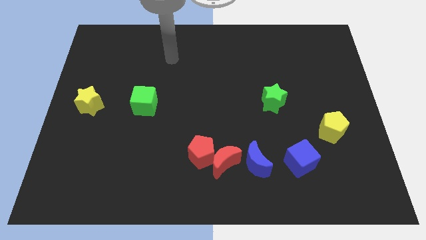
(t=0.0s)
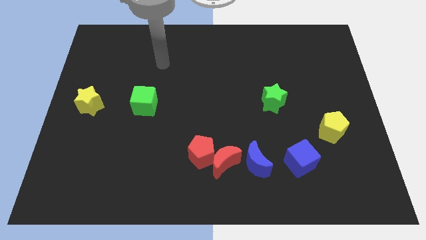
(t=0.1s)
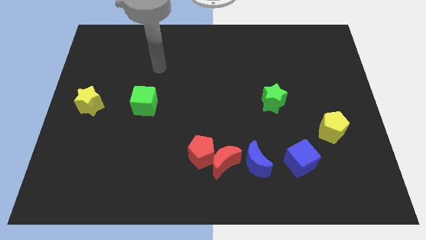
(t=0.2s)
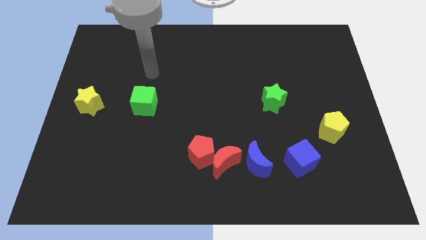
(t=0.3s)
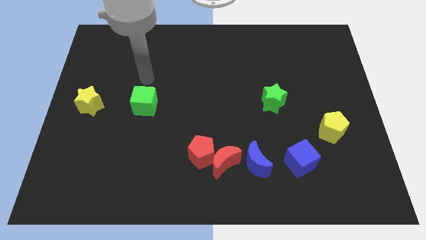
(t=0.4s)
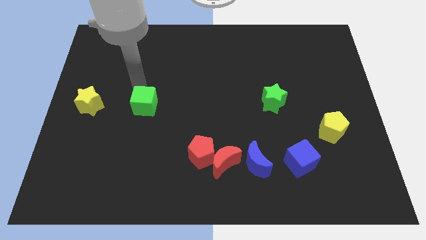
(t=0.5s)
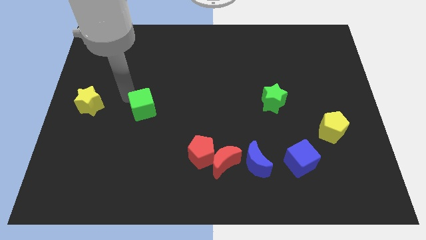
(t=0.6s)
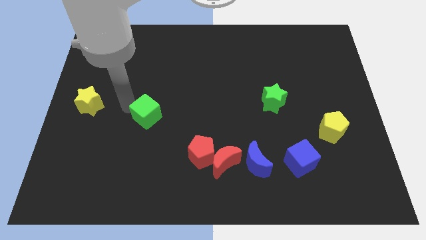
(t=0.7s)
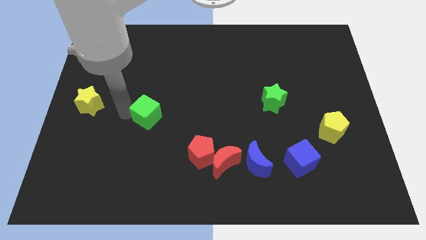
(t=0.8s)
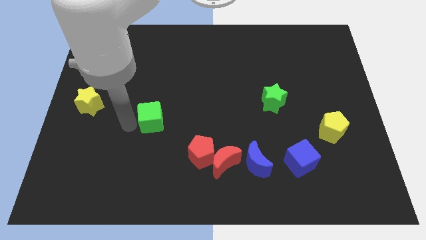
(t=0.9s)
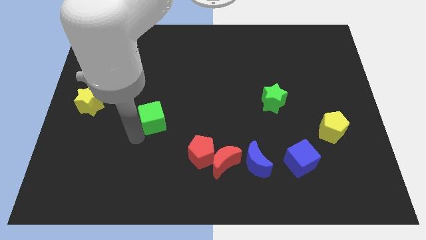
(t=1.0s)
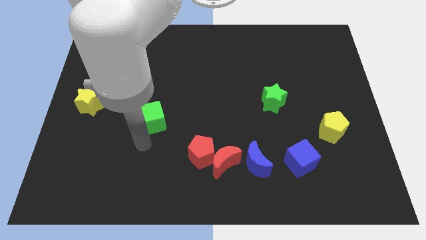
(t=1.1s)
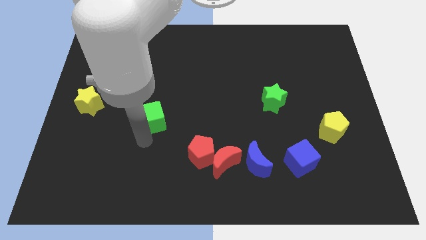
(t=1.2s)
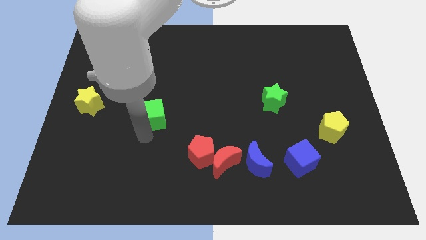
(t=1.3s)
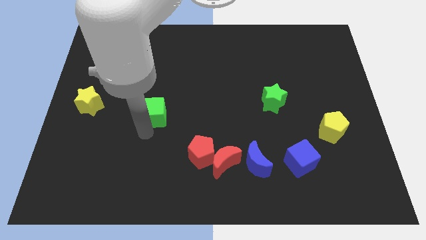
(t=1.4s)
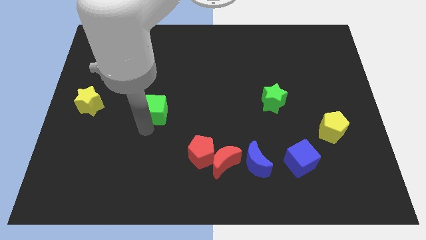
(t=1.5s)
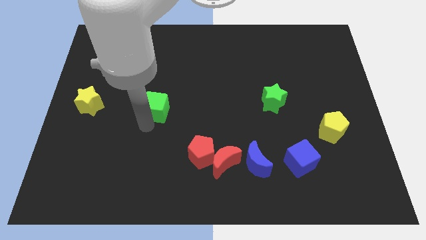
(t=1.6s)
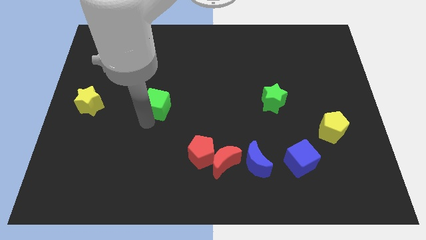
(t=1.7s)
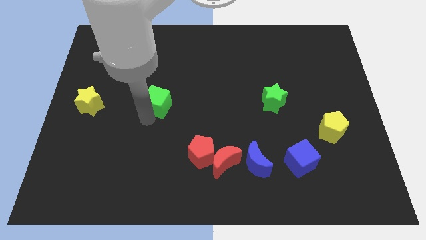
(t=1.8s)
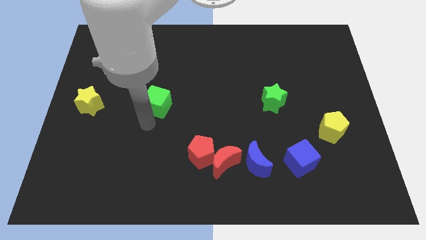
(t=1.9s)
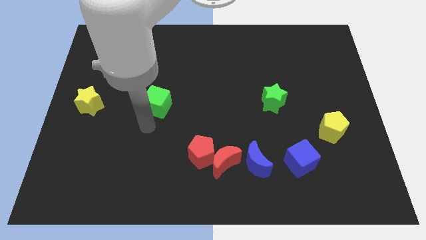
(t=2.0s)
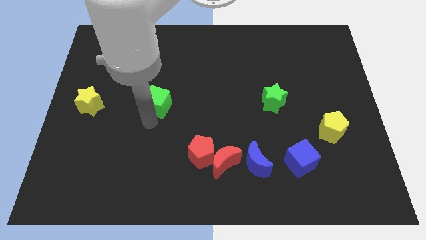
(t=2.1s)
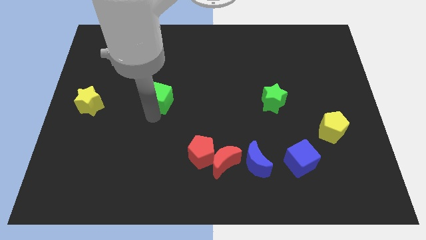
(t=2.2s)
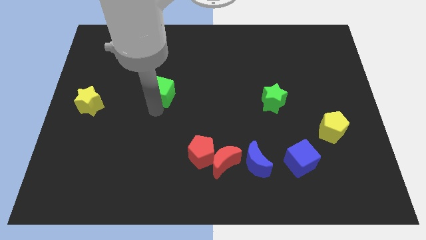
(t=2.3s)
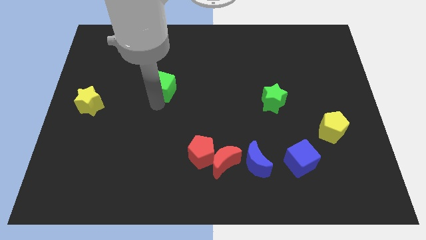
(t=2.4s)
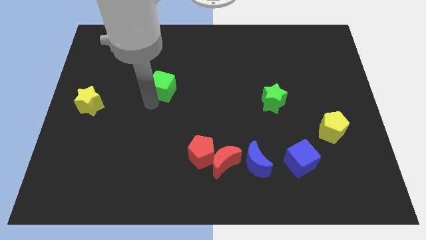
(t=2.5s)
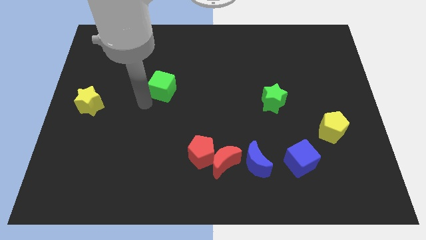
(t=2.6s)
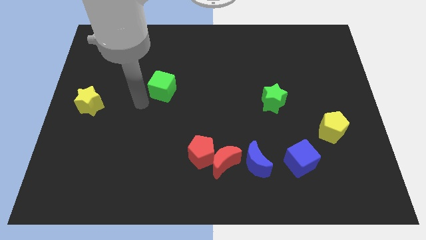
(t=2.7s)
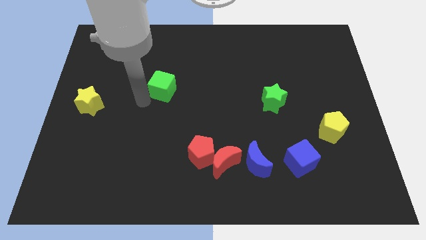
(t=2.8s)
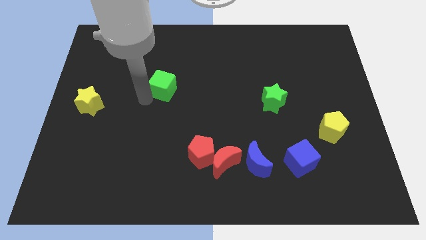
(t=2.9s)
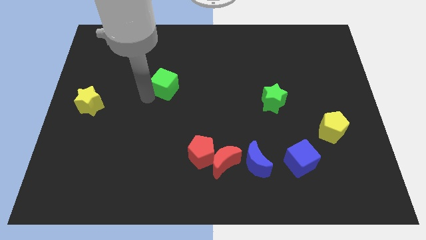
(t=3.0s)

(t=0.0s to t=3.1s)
slightly push the green cube up and to the right

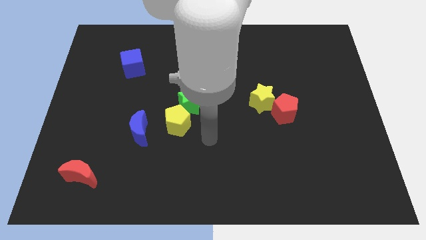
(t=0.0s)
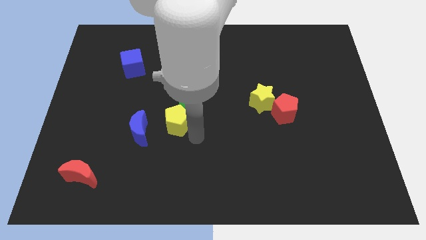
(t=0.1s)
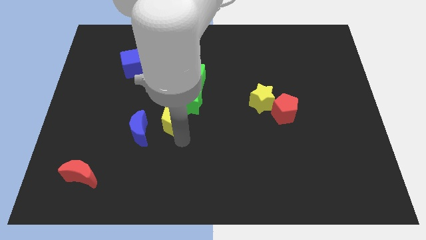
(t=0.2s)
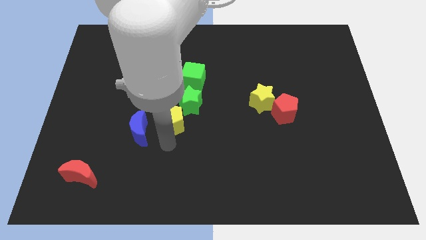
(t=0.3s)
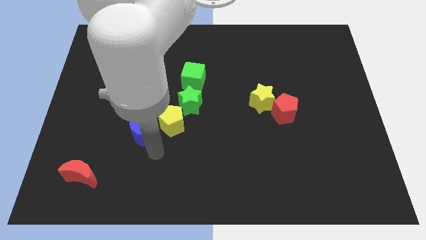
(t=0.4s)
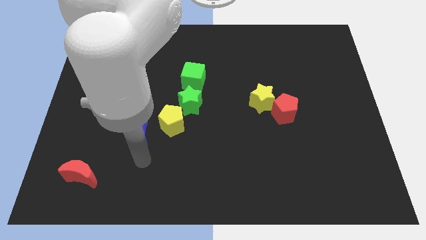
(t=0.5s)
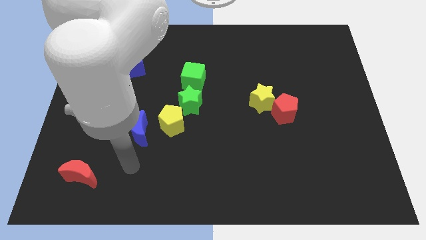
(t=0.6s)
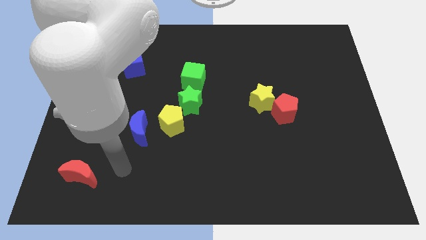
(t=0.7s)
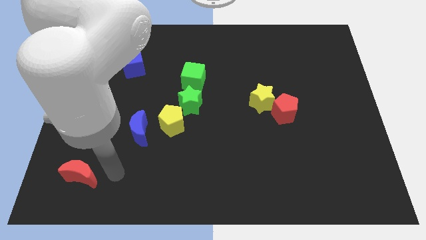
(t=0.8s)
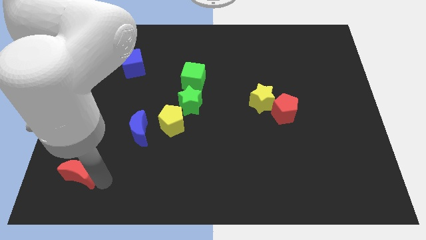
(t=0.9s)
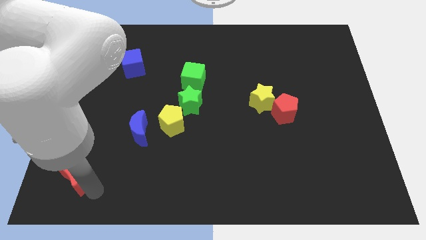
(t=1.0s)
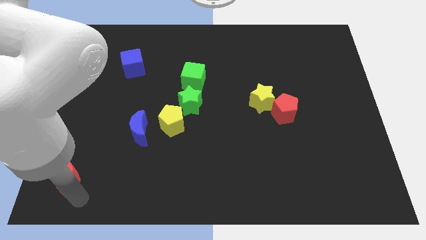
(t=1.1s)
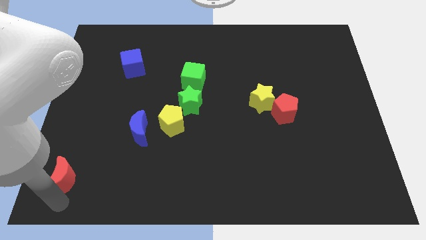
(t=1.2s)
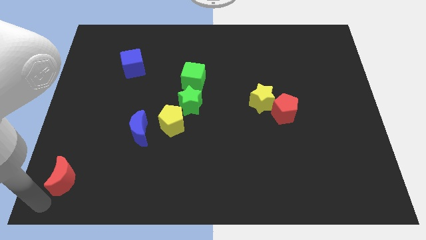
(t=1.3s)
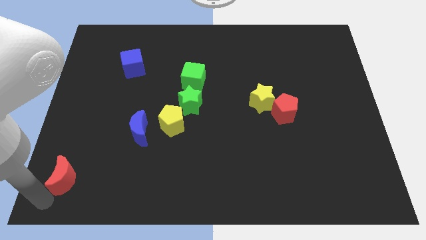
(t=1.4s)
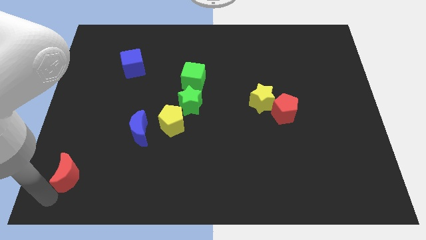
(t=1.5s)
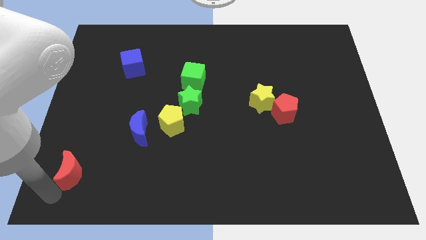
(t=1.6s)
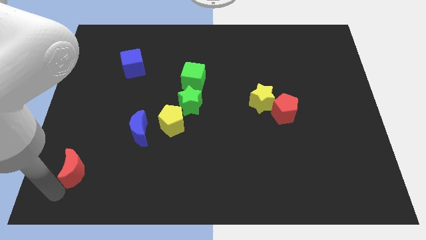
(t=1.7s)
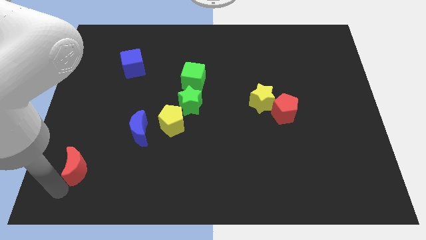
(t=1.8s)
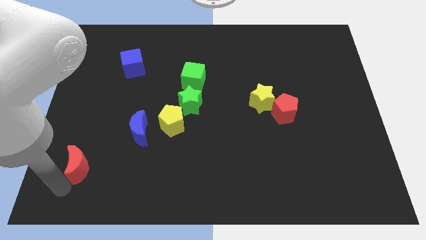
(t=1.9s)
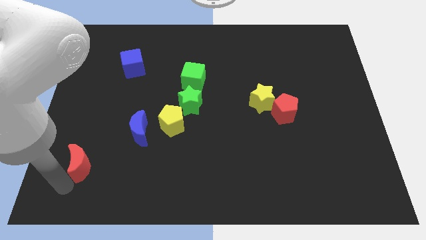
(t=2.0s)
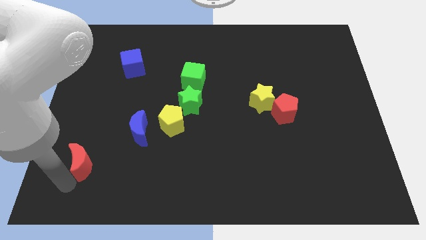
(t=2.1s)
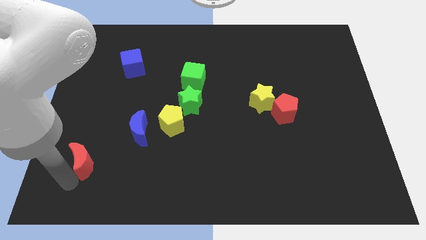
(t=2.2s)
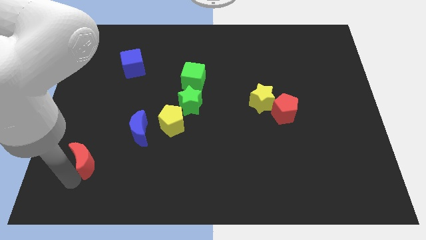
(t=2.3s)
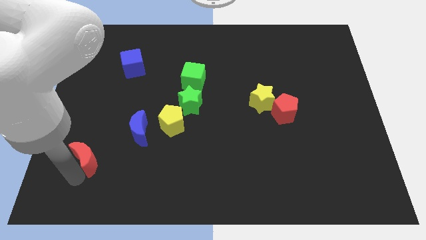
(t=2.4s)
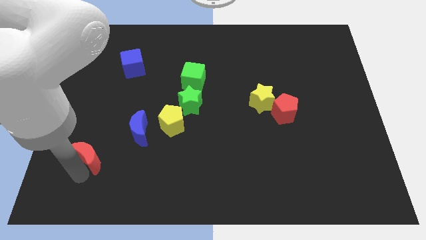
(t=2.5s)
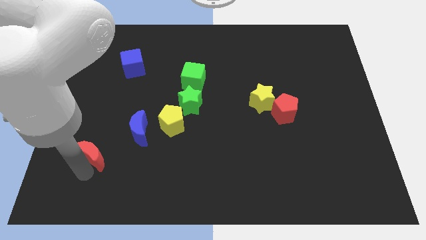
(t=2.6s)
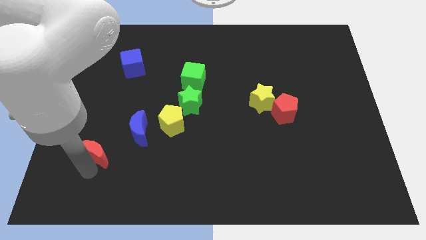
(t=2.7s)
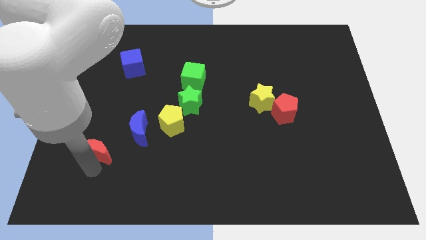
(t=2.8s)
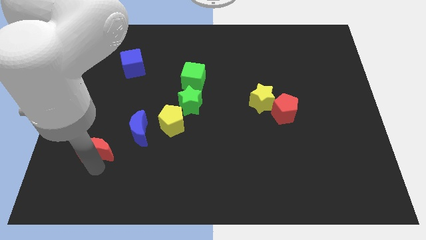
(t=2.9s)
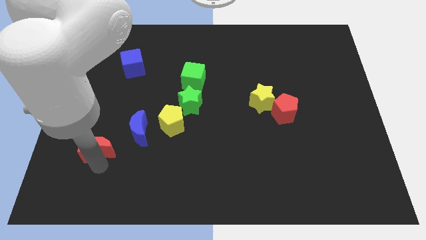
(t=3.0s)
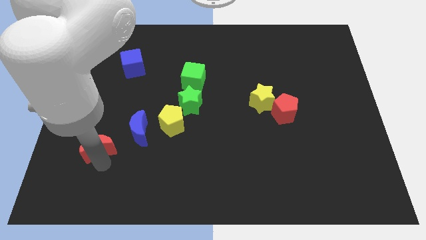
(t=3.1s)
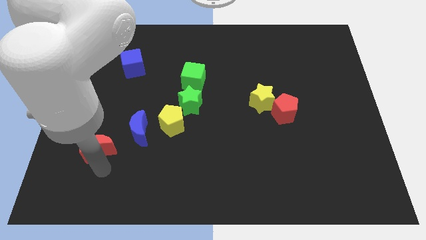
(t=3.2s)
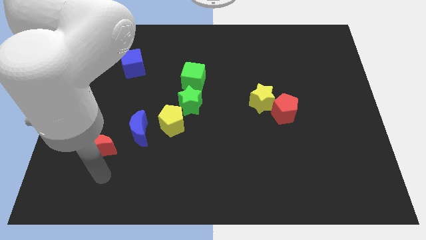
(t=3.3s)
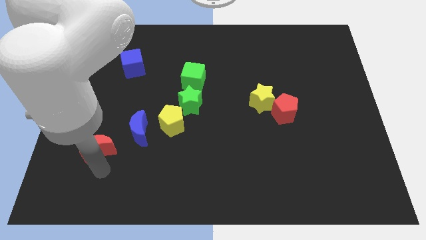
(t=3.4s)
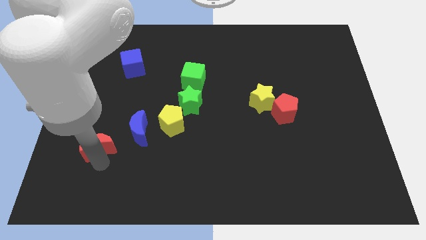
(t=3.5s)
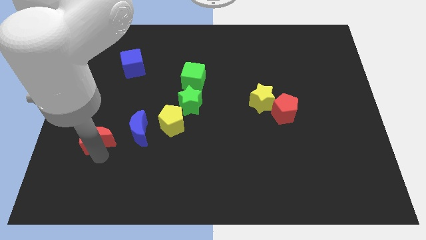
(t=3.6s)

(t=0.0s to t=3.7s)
slide the red moon up a bit

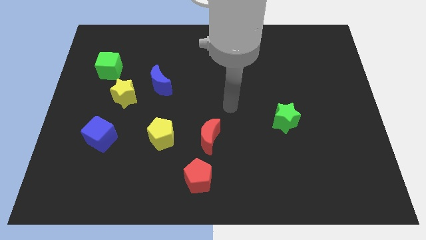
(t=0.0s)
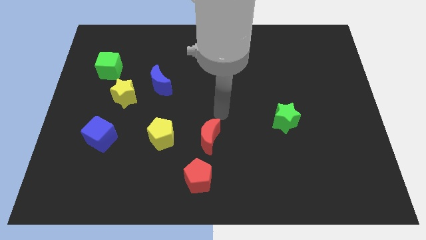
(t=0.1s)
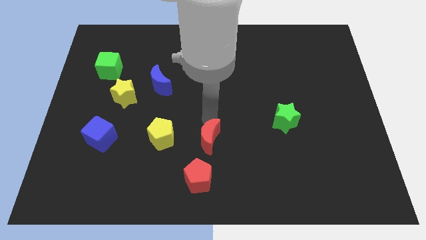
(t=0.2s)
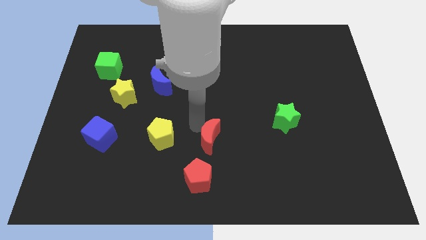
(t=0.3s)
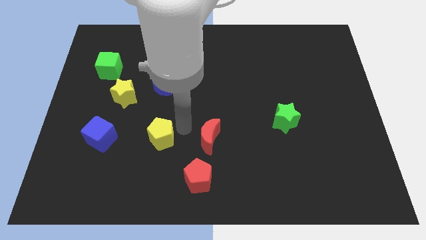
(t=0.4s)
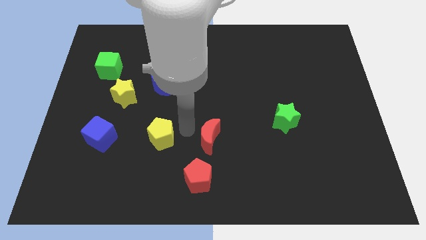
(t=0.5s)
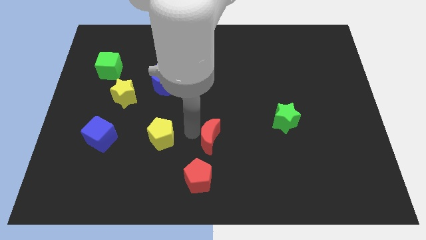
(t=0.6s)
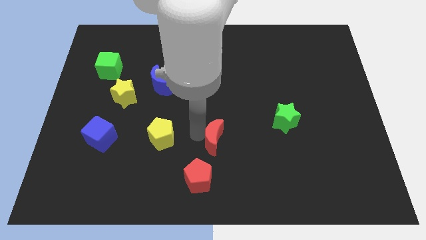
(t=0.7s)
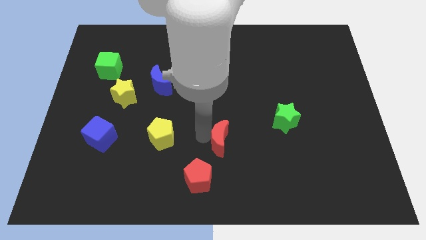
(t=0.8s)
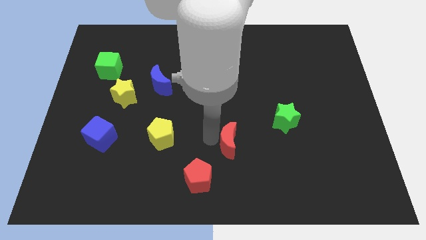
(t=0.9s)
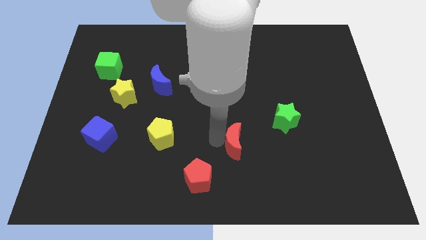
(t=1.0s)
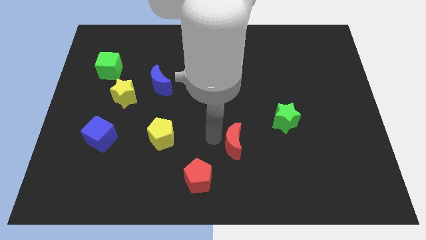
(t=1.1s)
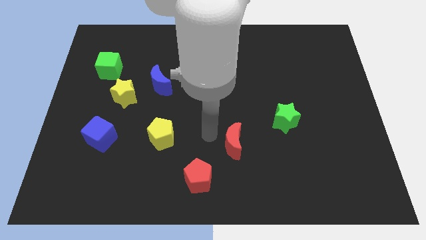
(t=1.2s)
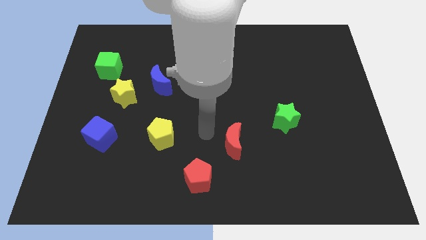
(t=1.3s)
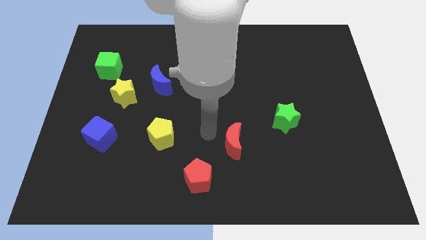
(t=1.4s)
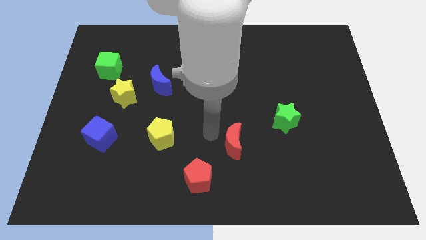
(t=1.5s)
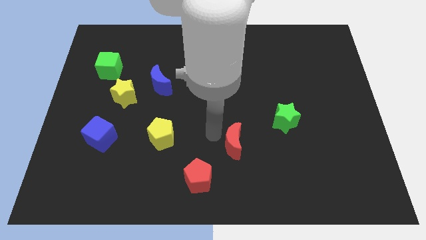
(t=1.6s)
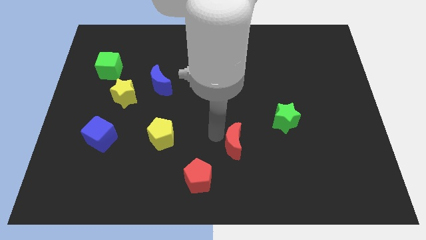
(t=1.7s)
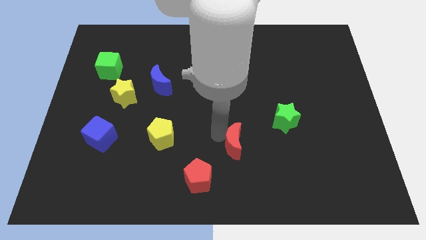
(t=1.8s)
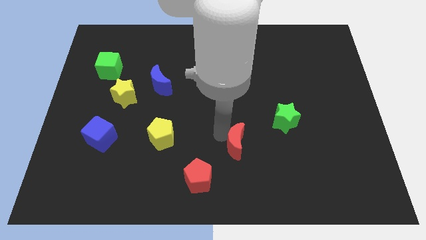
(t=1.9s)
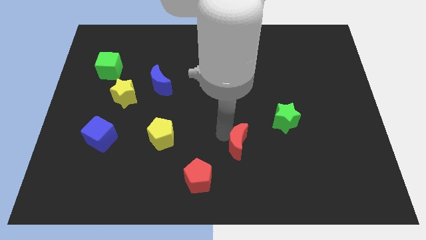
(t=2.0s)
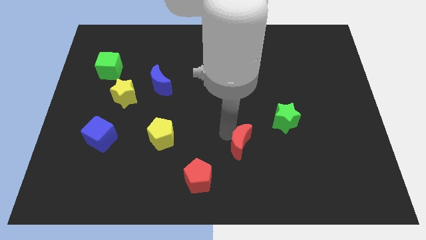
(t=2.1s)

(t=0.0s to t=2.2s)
slightly push the red moon right
